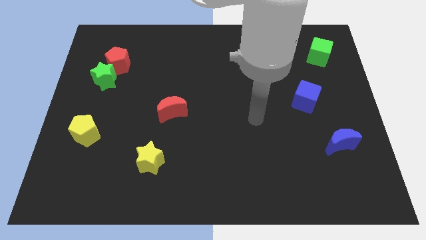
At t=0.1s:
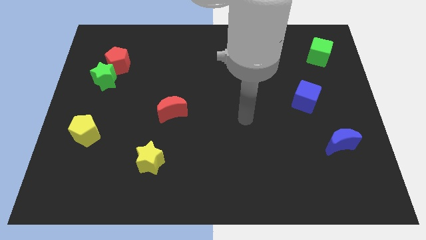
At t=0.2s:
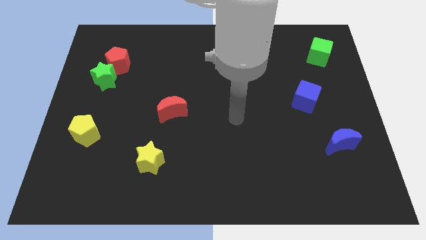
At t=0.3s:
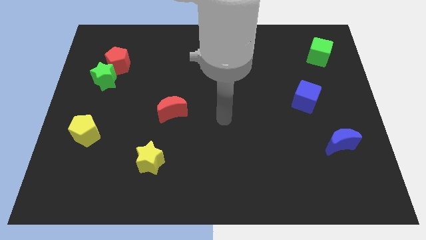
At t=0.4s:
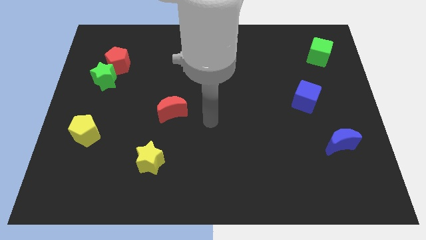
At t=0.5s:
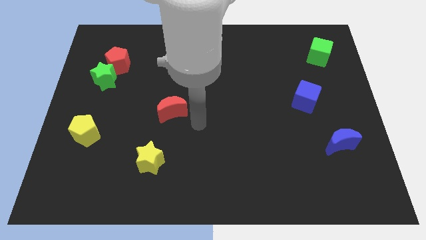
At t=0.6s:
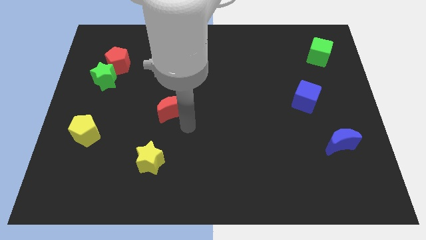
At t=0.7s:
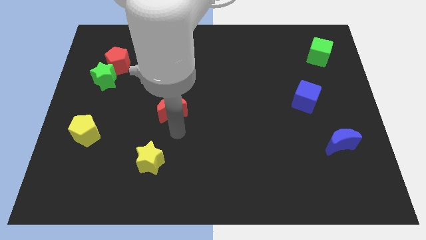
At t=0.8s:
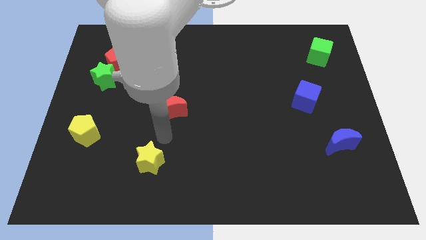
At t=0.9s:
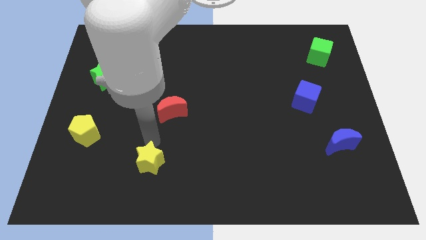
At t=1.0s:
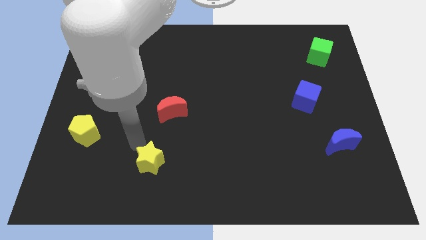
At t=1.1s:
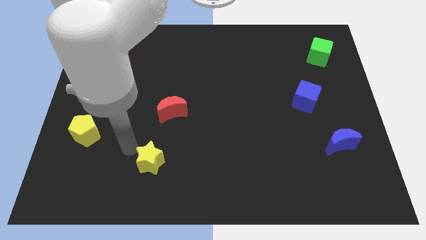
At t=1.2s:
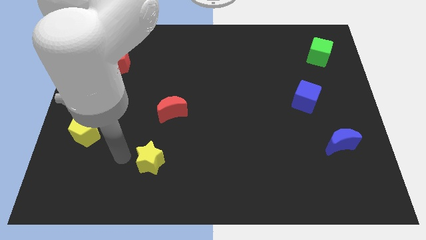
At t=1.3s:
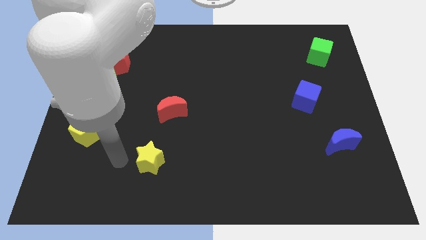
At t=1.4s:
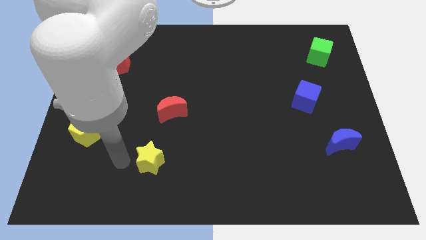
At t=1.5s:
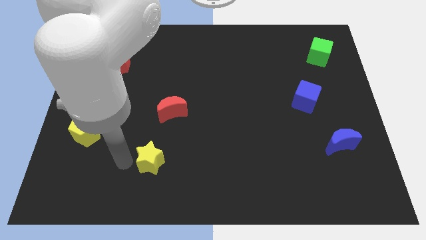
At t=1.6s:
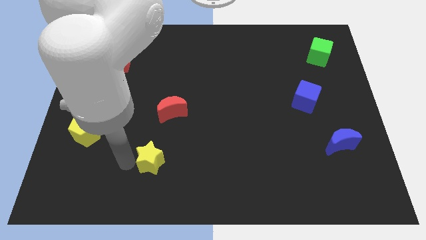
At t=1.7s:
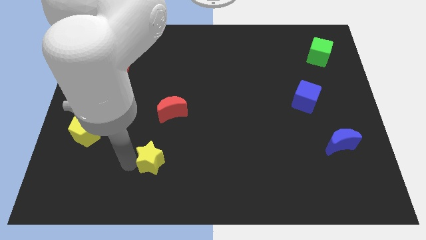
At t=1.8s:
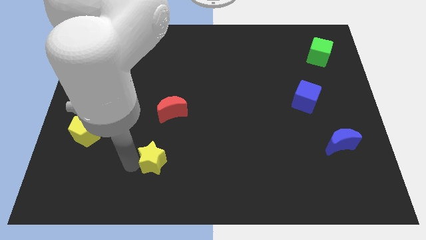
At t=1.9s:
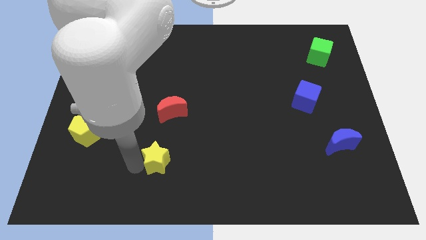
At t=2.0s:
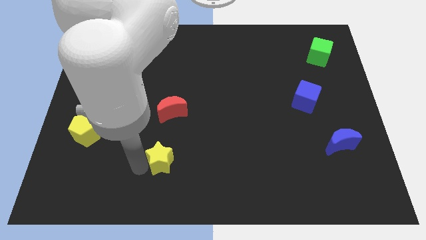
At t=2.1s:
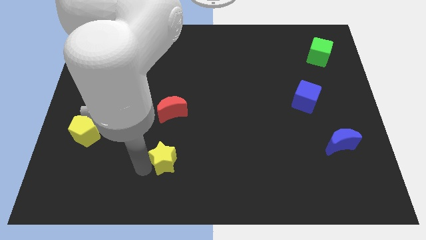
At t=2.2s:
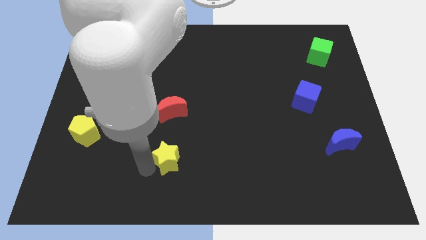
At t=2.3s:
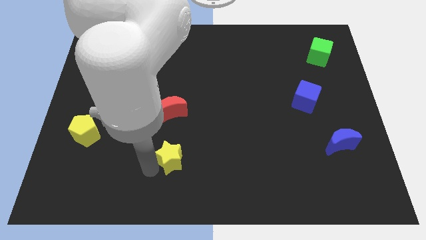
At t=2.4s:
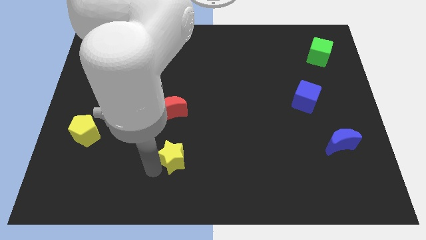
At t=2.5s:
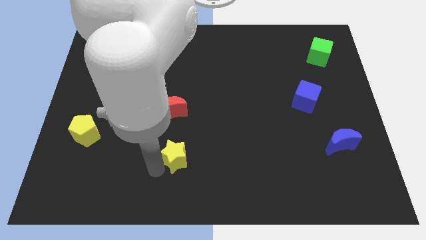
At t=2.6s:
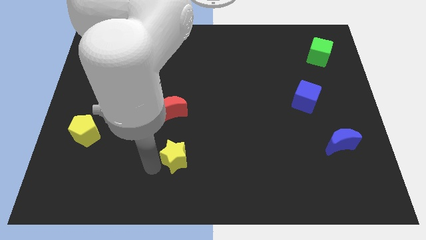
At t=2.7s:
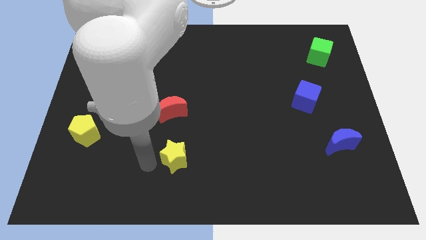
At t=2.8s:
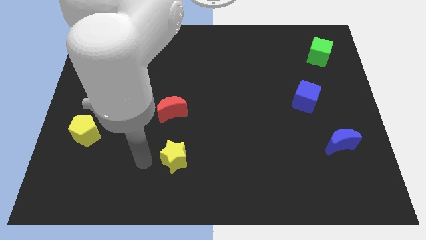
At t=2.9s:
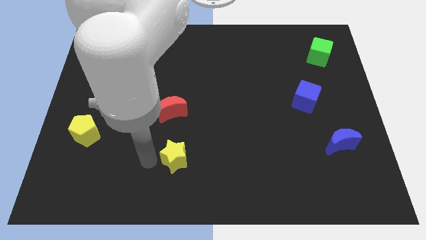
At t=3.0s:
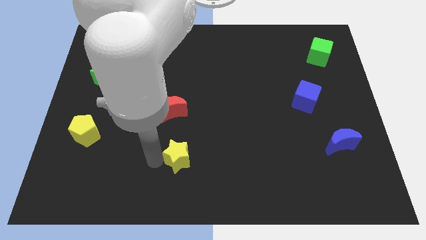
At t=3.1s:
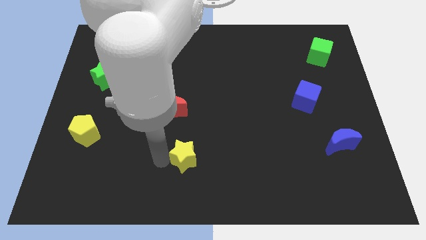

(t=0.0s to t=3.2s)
push the yellow star to the right a little bit

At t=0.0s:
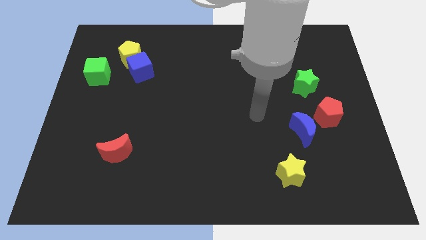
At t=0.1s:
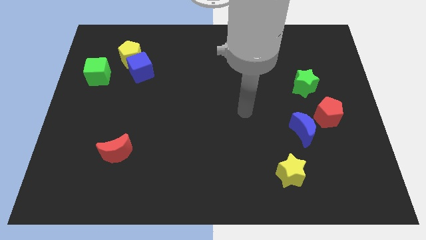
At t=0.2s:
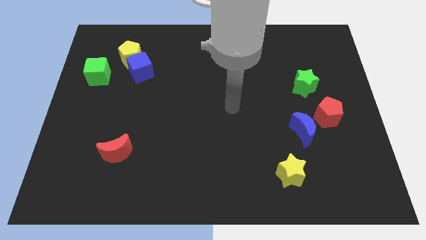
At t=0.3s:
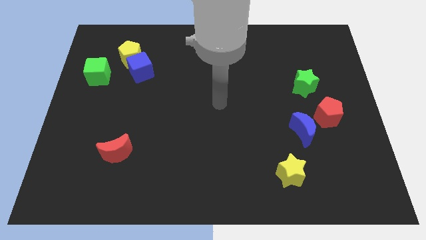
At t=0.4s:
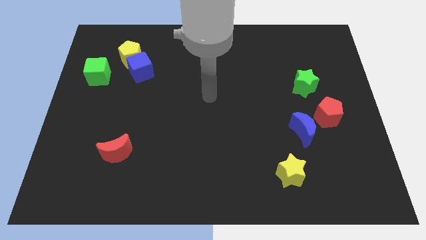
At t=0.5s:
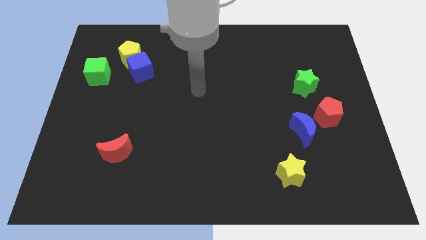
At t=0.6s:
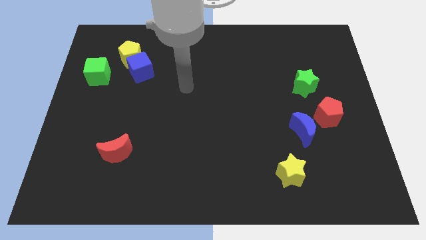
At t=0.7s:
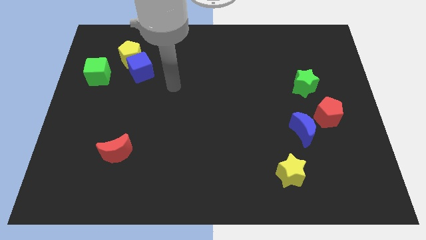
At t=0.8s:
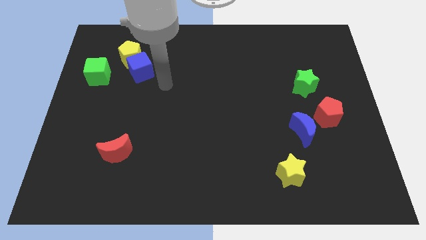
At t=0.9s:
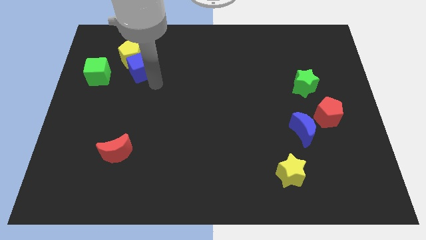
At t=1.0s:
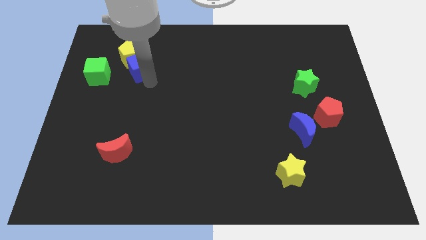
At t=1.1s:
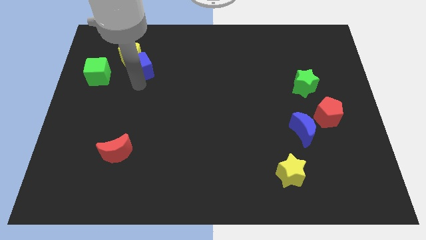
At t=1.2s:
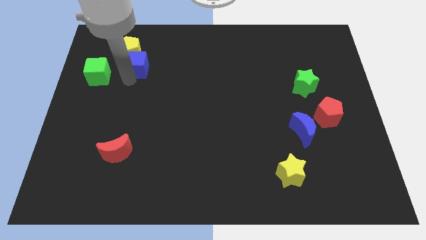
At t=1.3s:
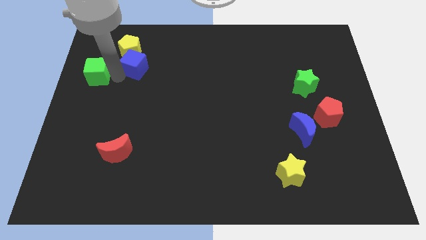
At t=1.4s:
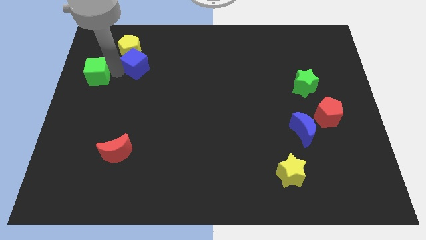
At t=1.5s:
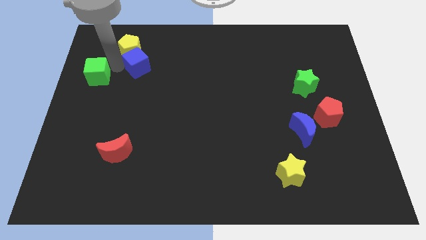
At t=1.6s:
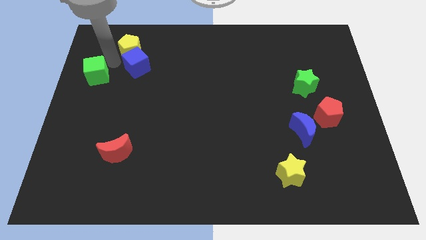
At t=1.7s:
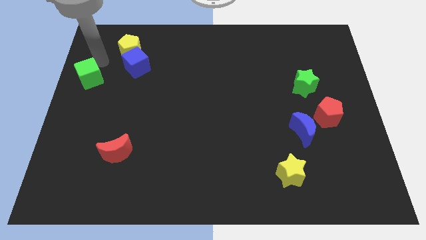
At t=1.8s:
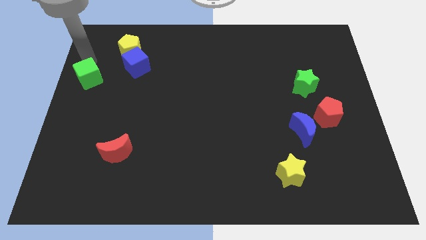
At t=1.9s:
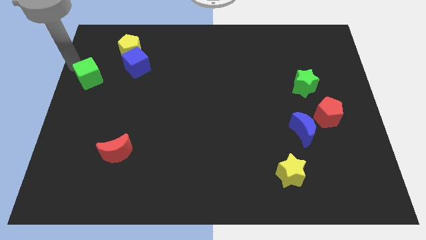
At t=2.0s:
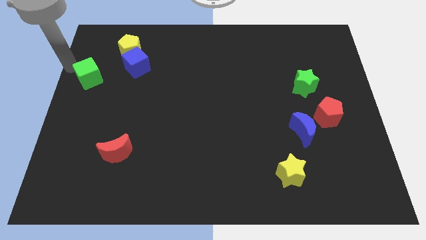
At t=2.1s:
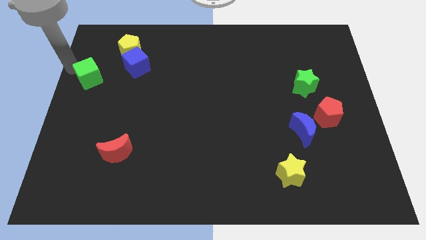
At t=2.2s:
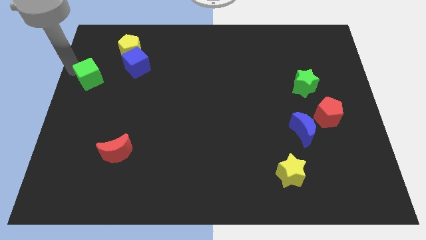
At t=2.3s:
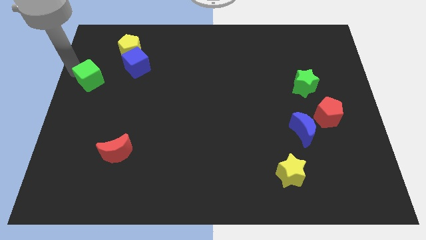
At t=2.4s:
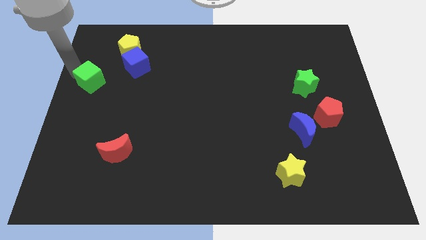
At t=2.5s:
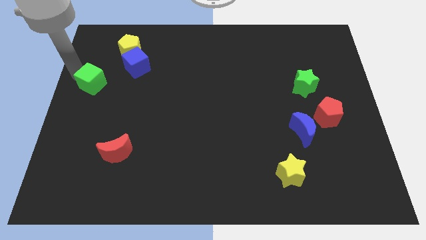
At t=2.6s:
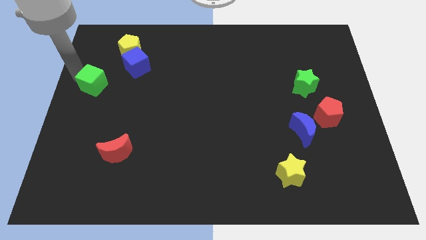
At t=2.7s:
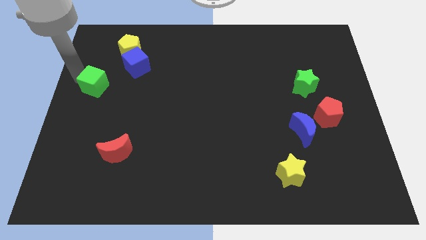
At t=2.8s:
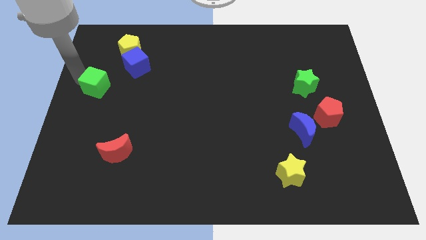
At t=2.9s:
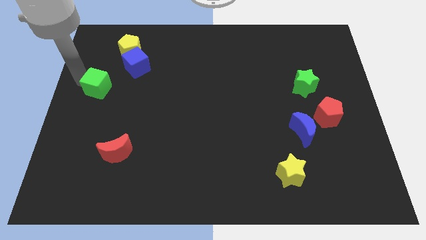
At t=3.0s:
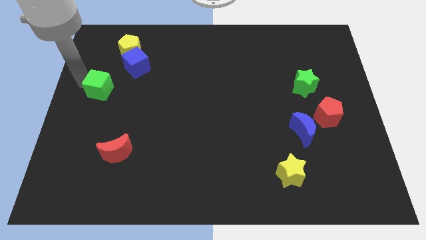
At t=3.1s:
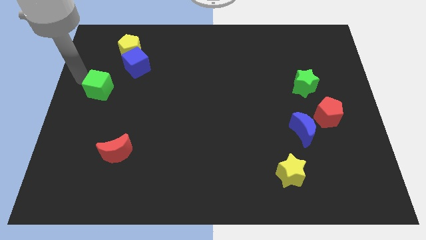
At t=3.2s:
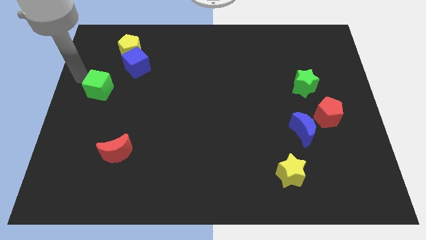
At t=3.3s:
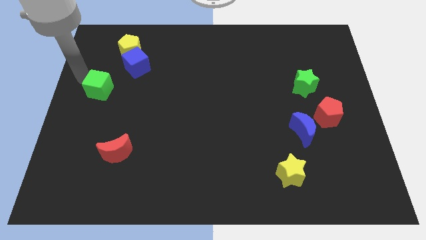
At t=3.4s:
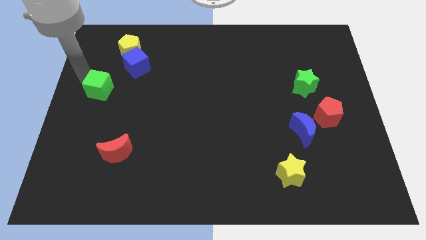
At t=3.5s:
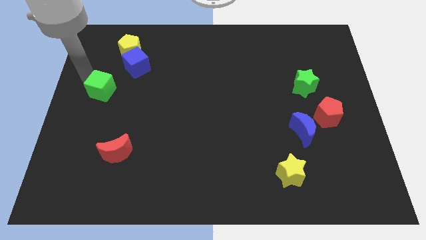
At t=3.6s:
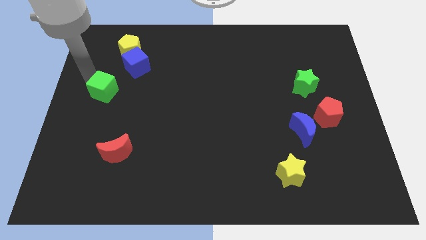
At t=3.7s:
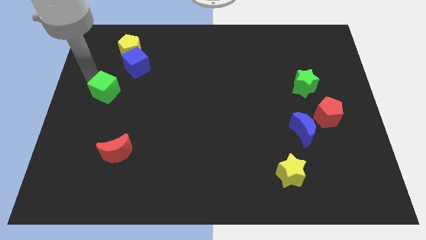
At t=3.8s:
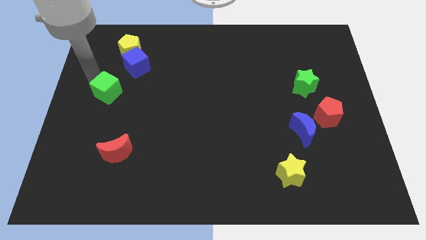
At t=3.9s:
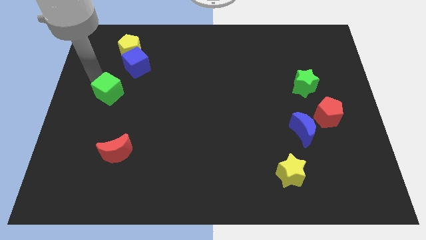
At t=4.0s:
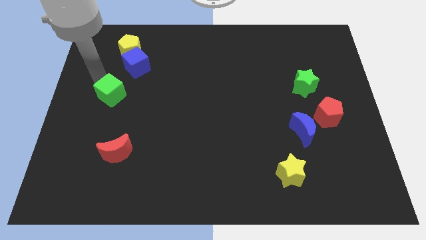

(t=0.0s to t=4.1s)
slide the green cube slightly downwards and to the right diagonally

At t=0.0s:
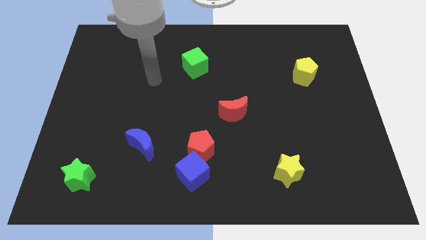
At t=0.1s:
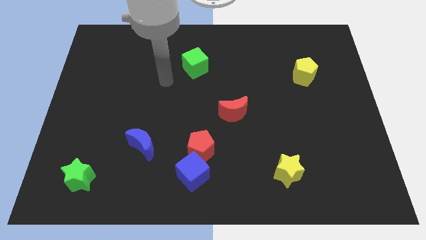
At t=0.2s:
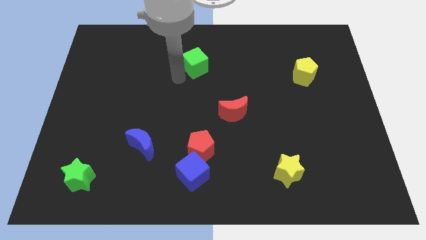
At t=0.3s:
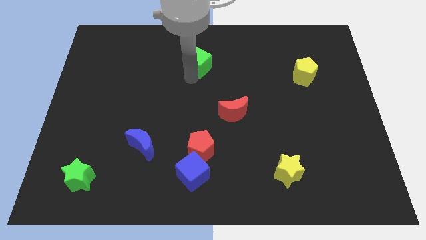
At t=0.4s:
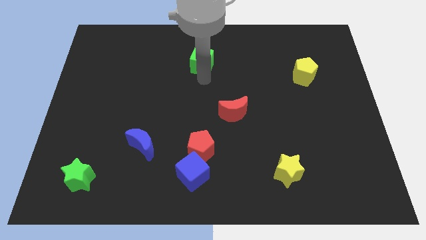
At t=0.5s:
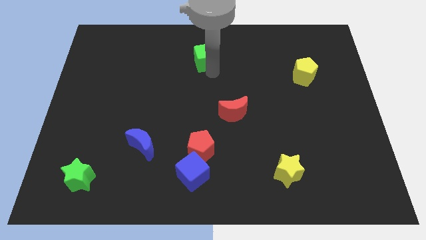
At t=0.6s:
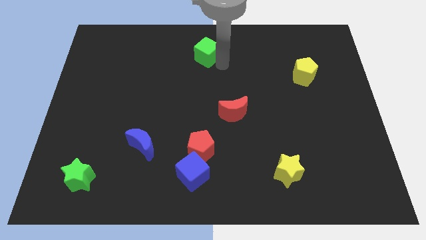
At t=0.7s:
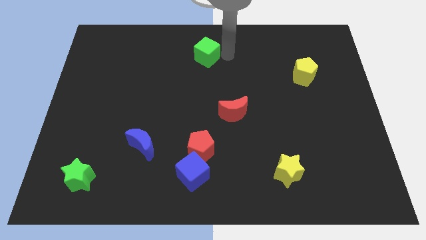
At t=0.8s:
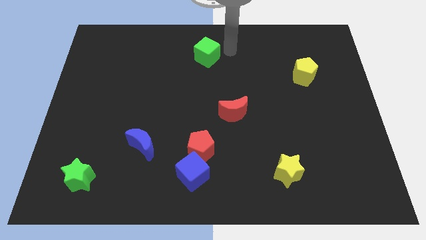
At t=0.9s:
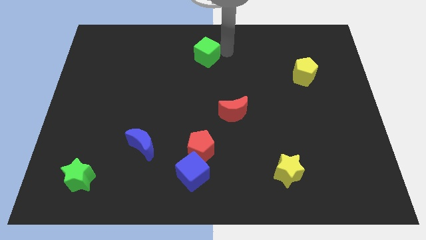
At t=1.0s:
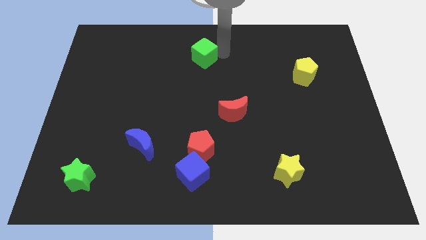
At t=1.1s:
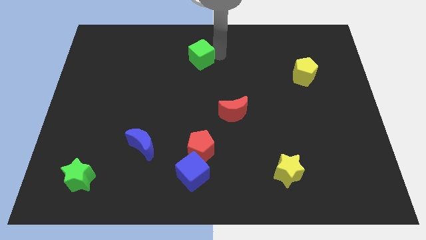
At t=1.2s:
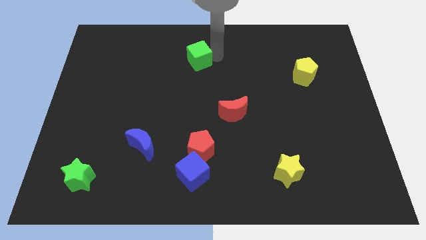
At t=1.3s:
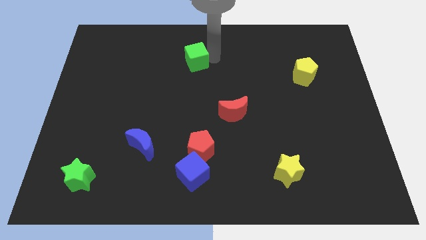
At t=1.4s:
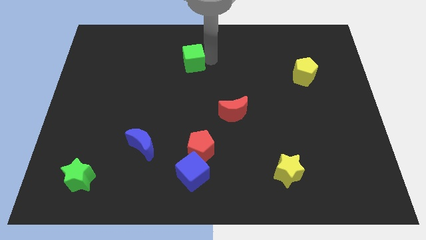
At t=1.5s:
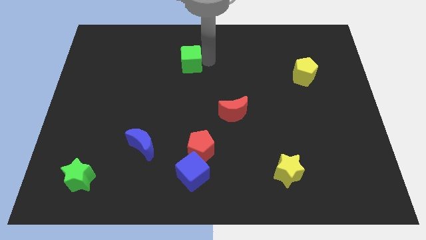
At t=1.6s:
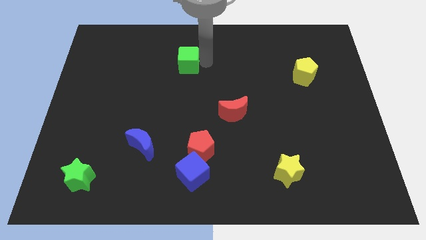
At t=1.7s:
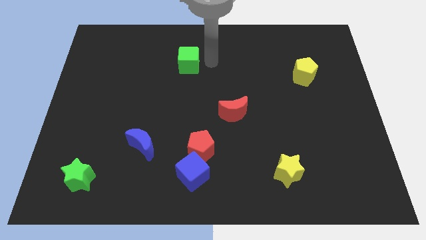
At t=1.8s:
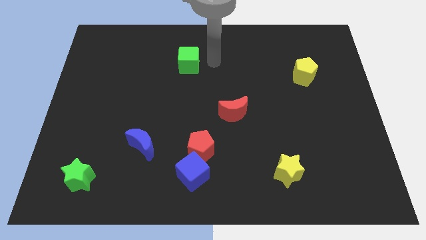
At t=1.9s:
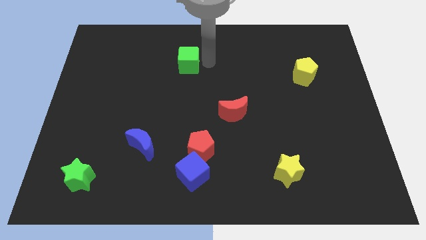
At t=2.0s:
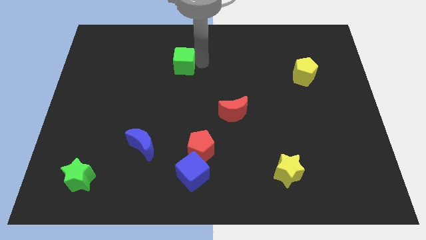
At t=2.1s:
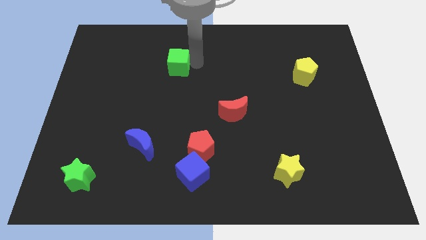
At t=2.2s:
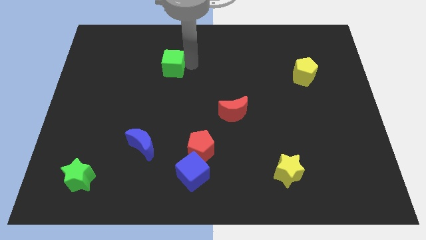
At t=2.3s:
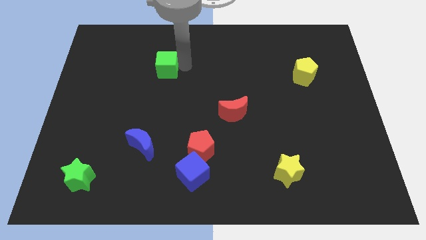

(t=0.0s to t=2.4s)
move the green cube left a little
